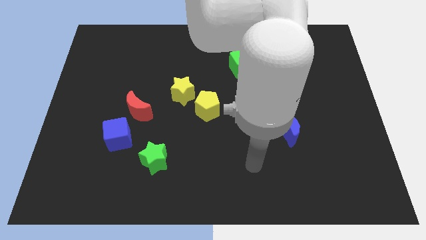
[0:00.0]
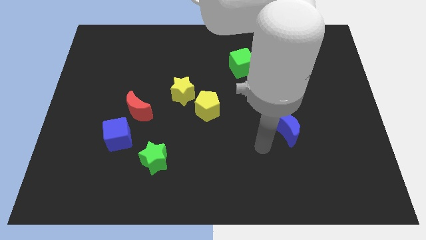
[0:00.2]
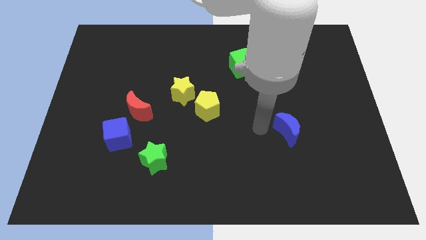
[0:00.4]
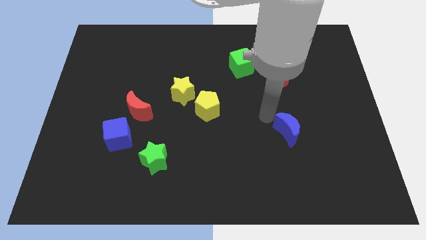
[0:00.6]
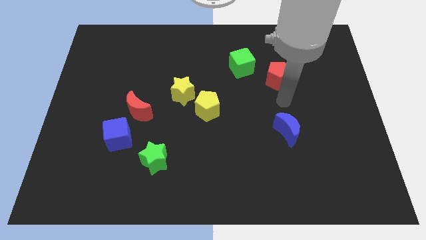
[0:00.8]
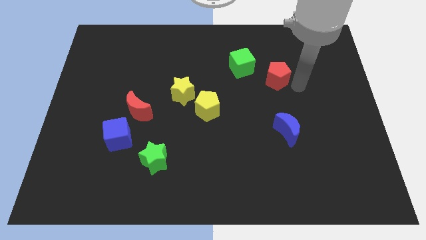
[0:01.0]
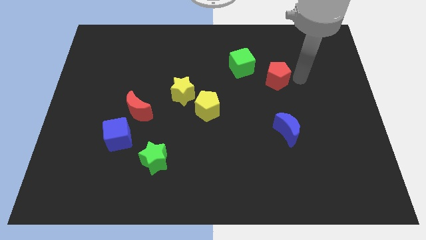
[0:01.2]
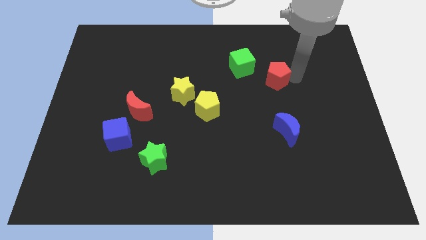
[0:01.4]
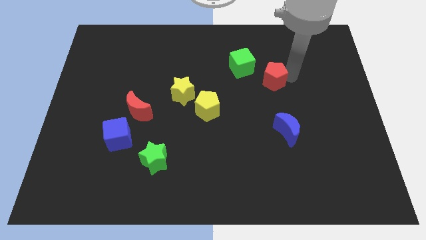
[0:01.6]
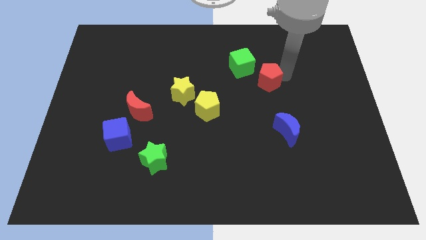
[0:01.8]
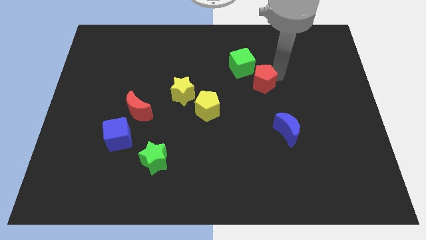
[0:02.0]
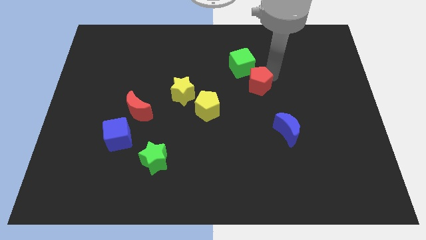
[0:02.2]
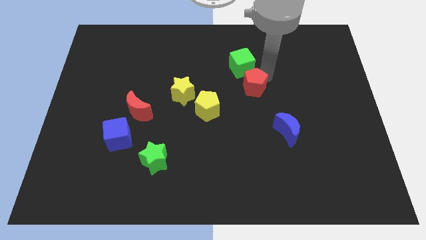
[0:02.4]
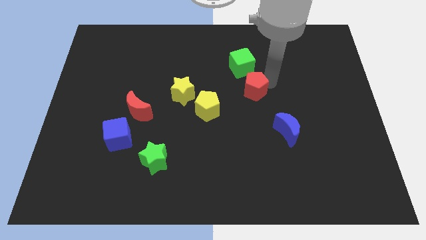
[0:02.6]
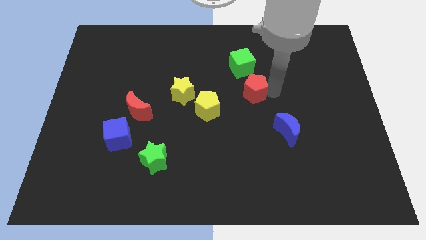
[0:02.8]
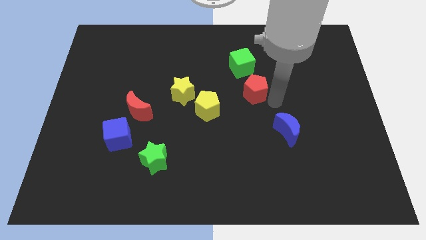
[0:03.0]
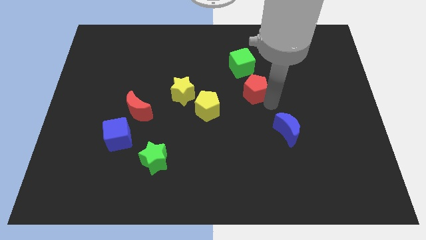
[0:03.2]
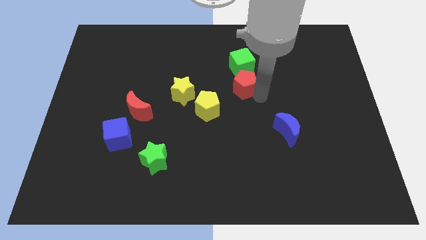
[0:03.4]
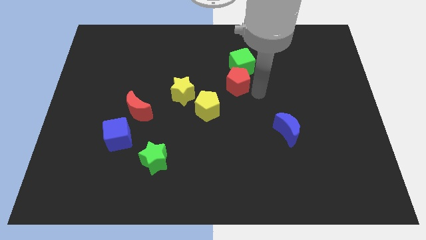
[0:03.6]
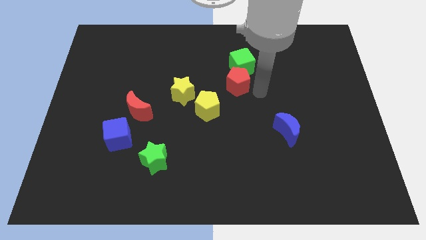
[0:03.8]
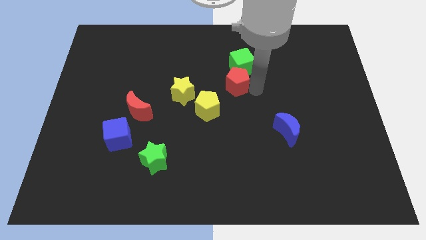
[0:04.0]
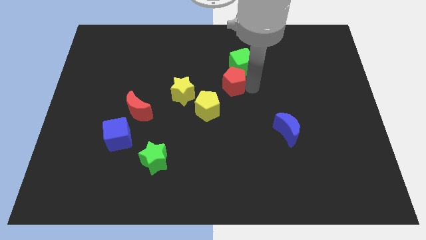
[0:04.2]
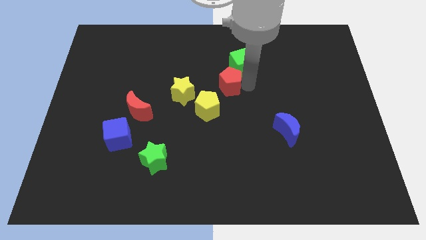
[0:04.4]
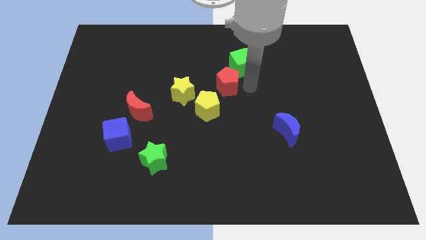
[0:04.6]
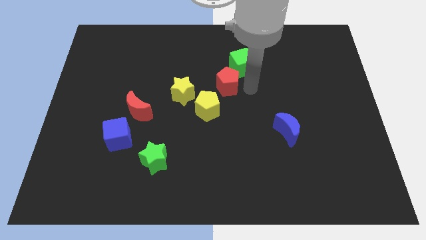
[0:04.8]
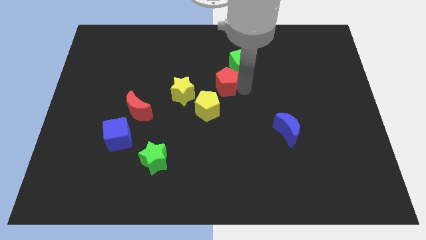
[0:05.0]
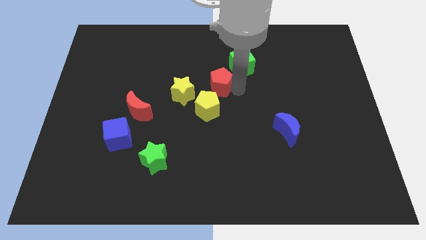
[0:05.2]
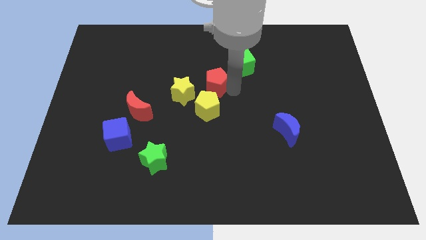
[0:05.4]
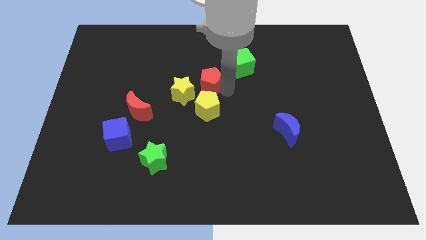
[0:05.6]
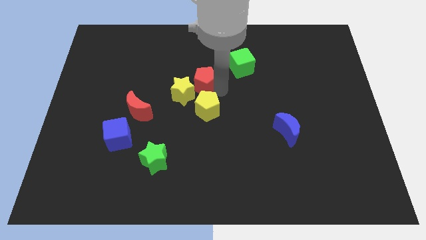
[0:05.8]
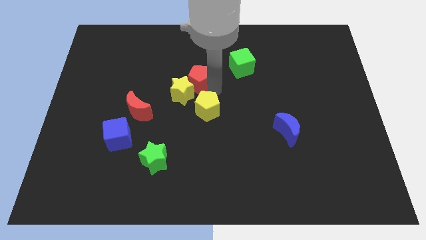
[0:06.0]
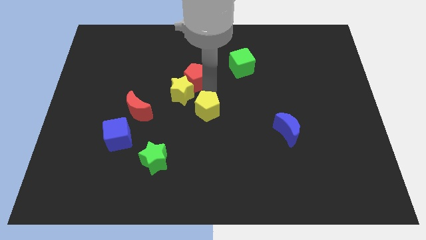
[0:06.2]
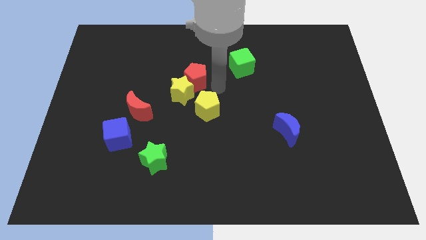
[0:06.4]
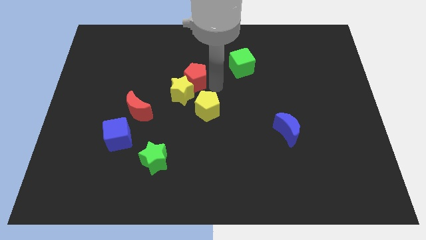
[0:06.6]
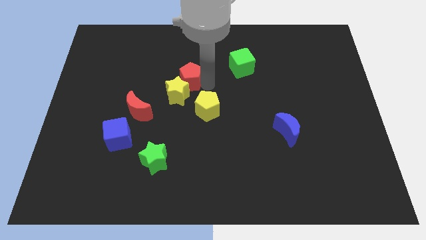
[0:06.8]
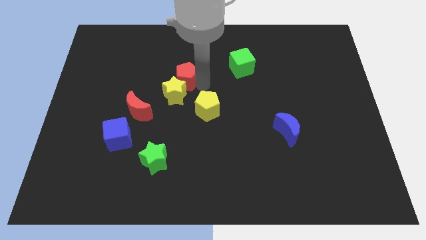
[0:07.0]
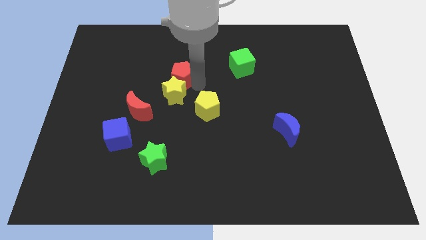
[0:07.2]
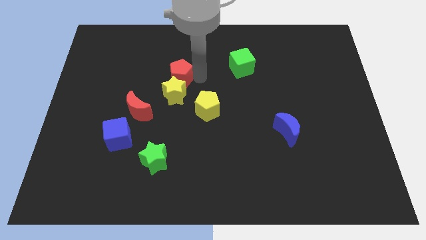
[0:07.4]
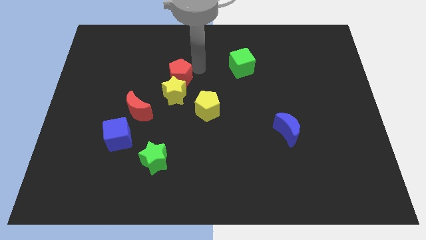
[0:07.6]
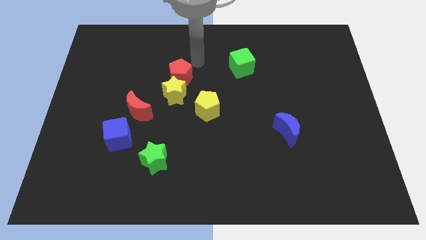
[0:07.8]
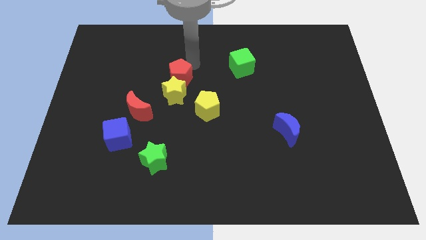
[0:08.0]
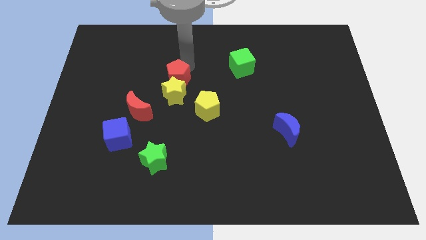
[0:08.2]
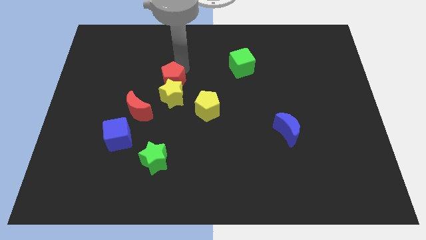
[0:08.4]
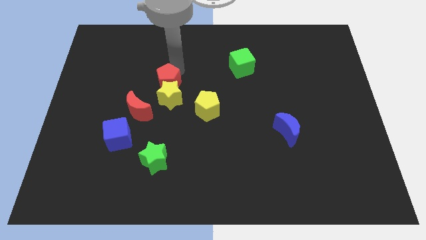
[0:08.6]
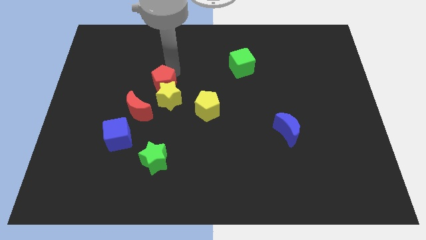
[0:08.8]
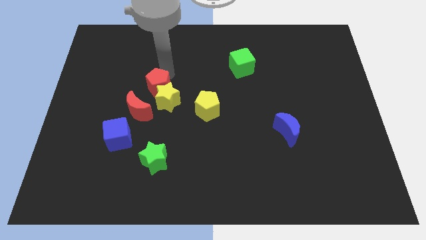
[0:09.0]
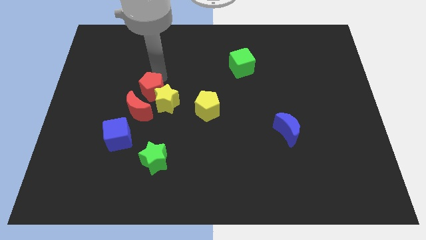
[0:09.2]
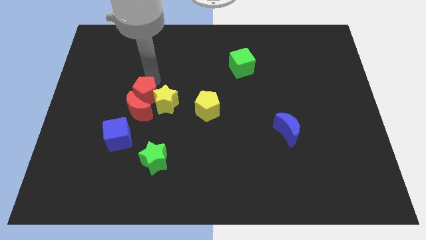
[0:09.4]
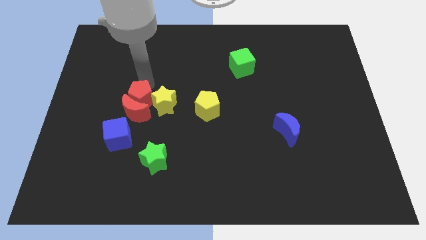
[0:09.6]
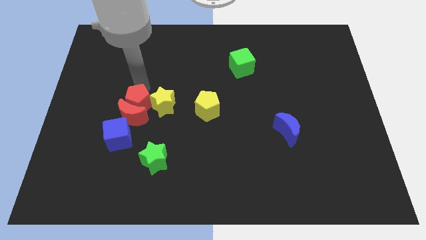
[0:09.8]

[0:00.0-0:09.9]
slide the red pentagon to the bottom left side of the yellow star

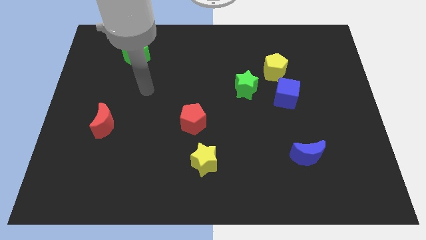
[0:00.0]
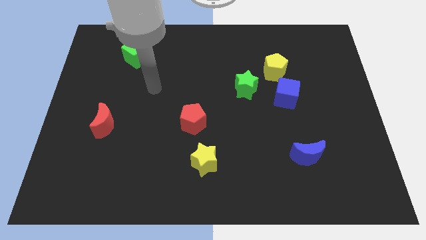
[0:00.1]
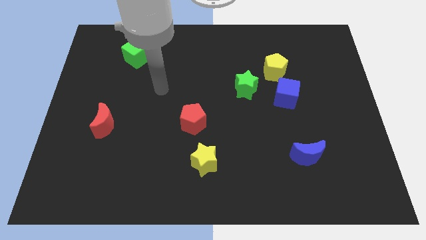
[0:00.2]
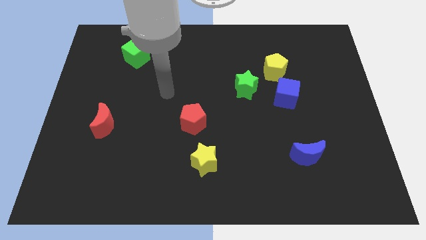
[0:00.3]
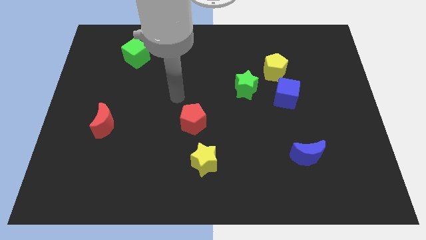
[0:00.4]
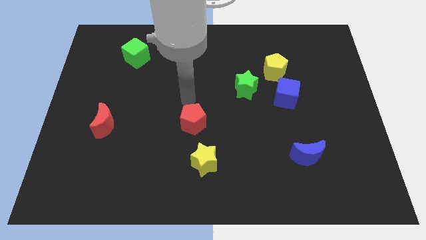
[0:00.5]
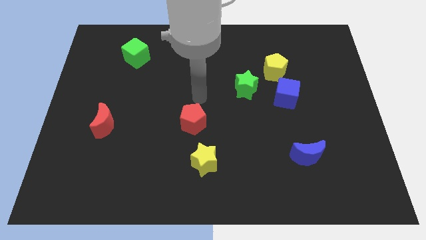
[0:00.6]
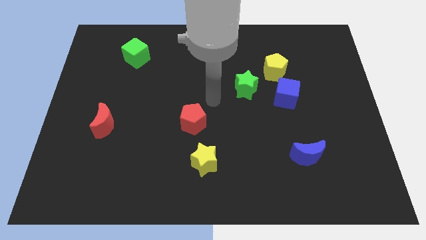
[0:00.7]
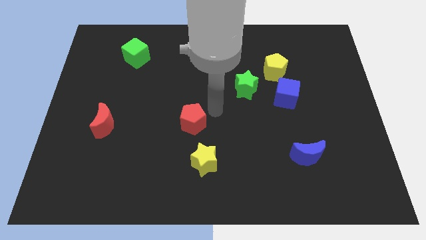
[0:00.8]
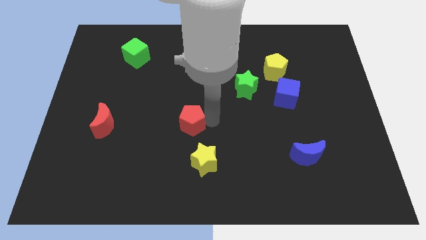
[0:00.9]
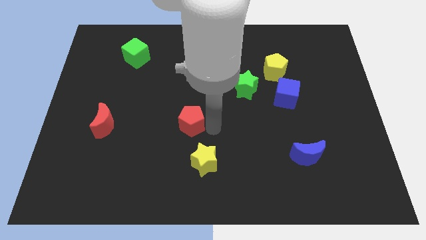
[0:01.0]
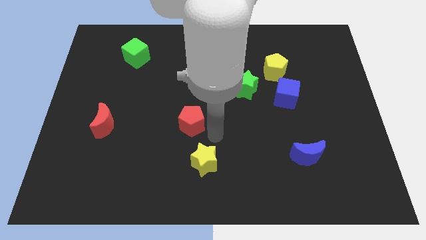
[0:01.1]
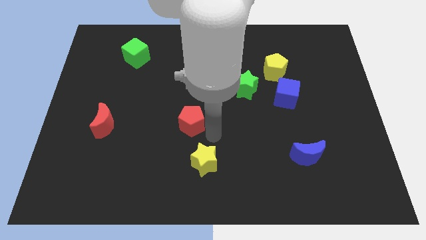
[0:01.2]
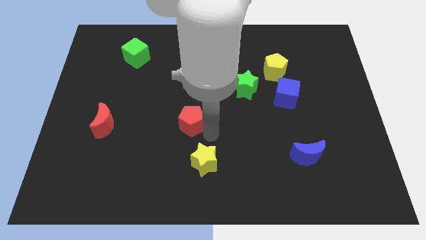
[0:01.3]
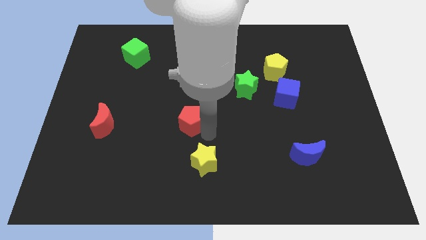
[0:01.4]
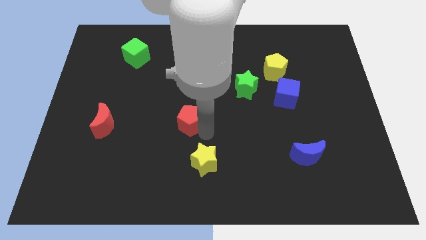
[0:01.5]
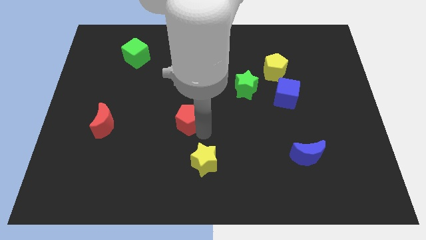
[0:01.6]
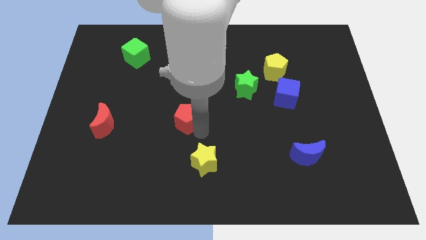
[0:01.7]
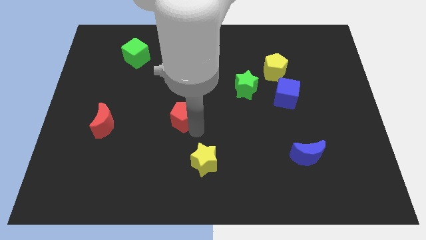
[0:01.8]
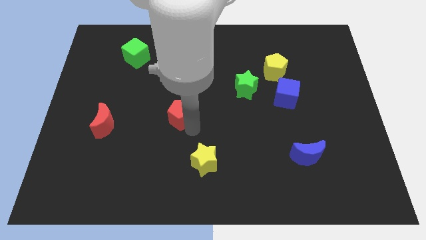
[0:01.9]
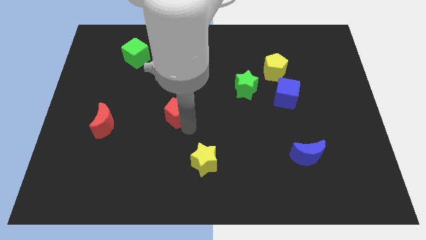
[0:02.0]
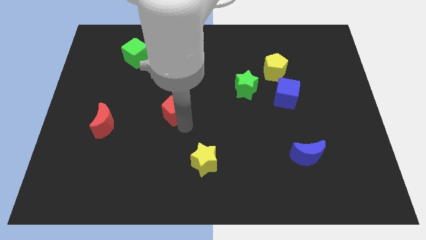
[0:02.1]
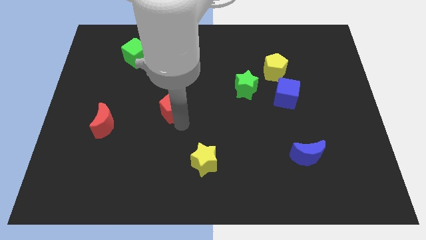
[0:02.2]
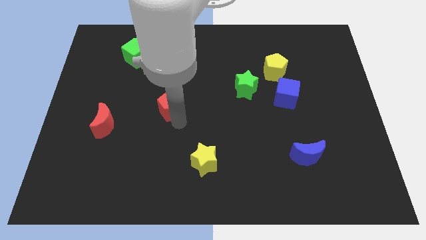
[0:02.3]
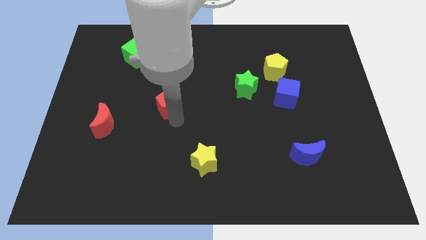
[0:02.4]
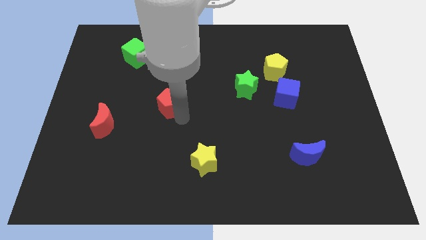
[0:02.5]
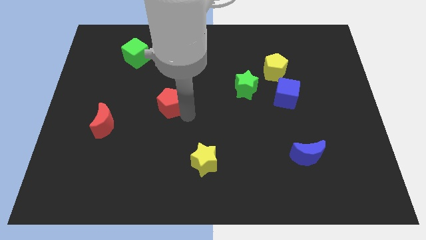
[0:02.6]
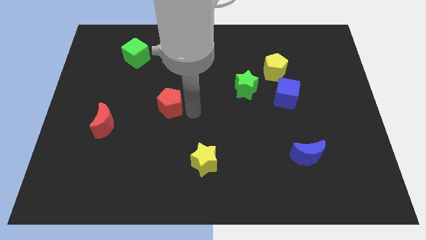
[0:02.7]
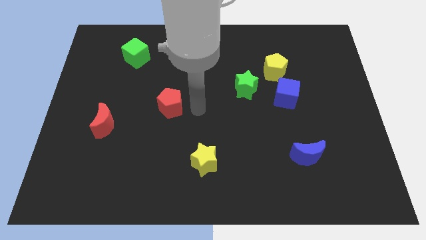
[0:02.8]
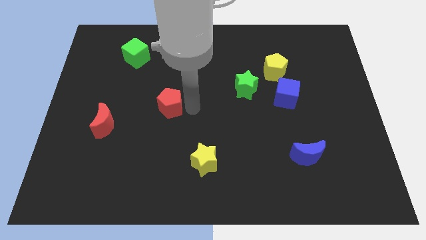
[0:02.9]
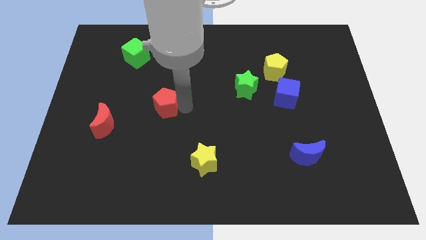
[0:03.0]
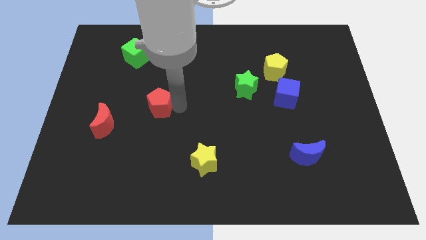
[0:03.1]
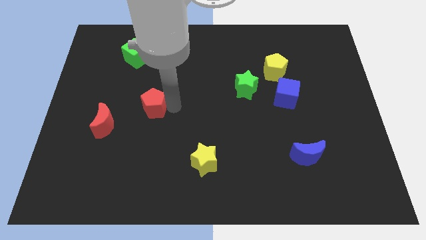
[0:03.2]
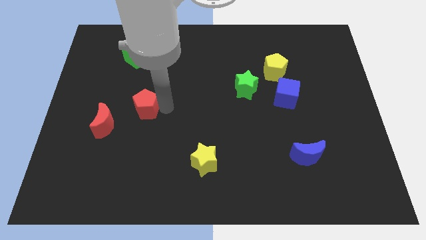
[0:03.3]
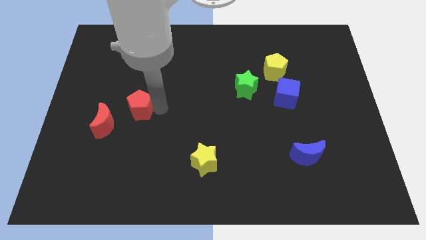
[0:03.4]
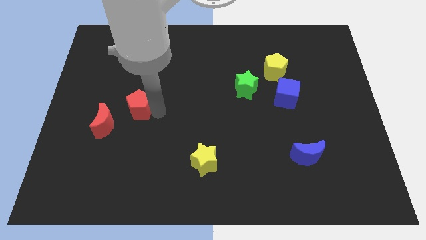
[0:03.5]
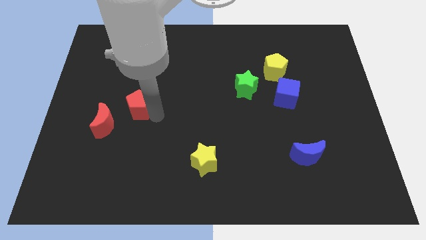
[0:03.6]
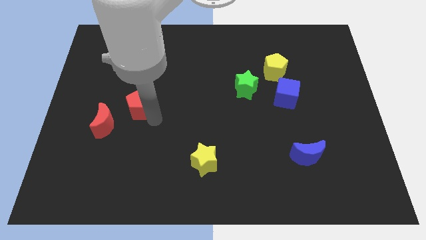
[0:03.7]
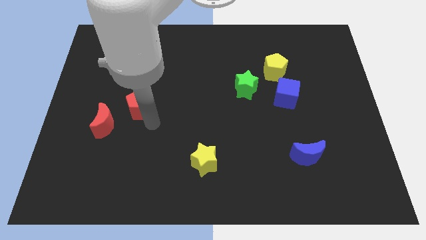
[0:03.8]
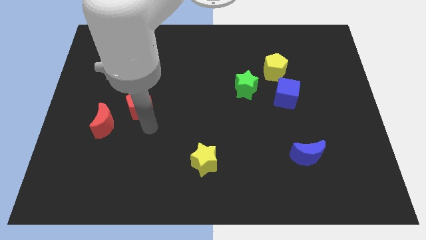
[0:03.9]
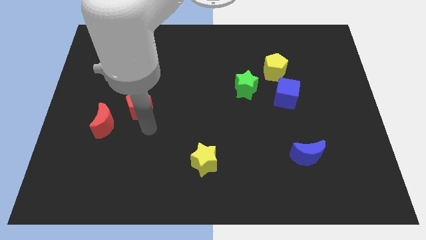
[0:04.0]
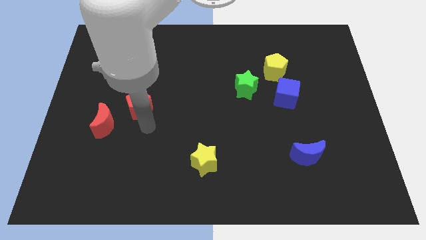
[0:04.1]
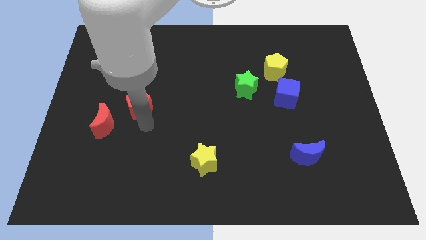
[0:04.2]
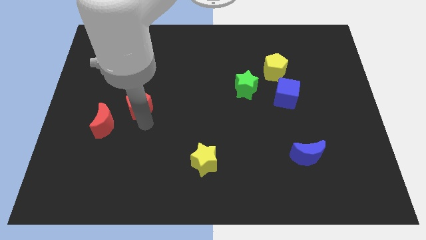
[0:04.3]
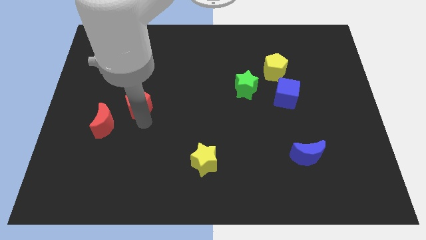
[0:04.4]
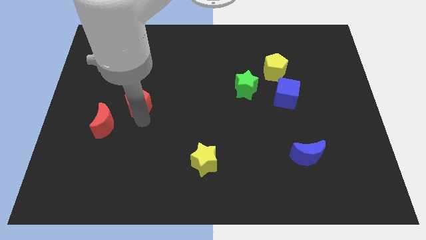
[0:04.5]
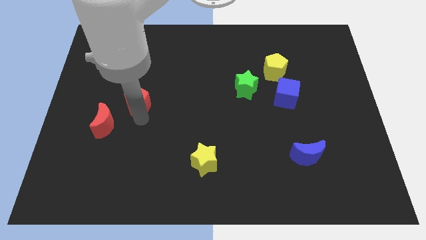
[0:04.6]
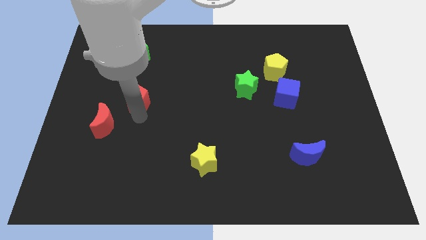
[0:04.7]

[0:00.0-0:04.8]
put the red pentagon to the bottom side of the green cube
